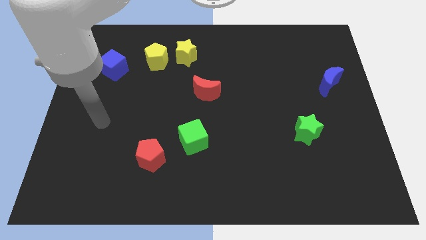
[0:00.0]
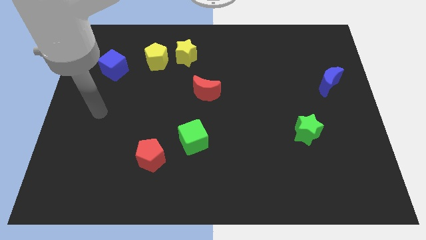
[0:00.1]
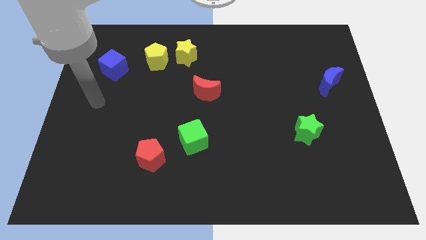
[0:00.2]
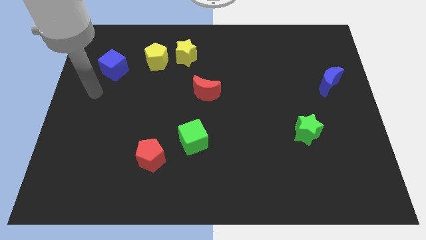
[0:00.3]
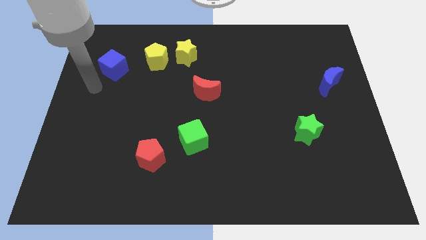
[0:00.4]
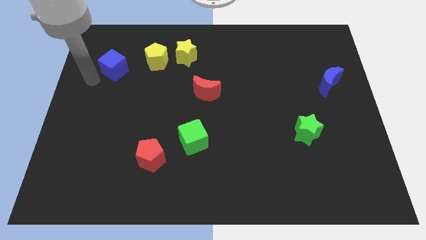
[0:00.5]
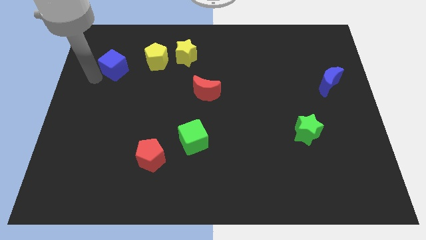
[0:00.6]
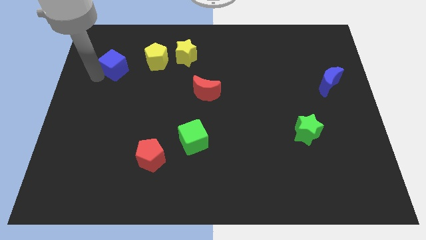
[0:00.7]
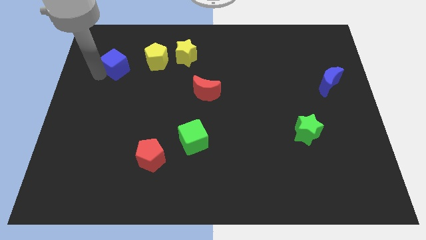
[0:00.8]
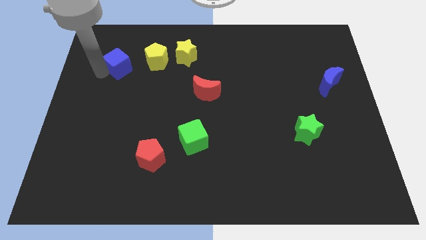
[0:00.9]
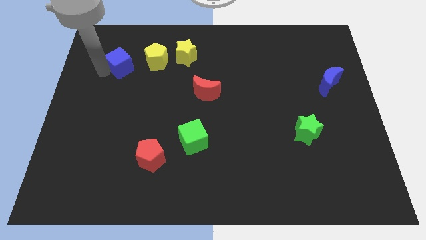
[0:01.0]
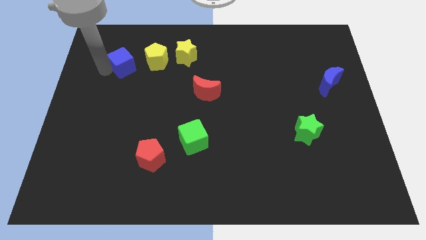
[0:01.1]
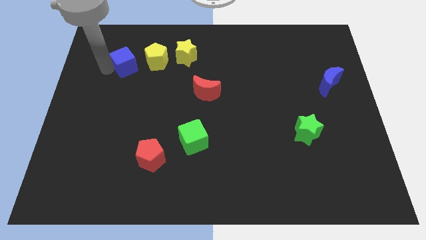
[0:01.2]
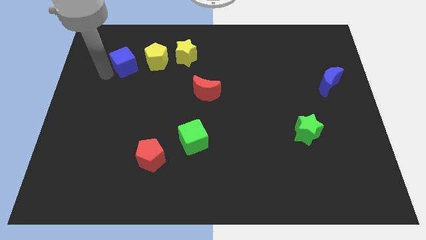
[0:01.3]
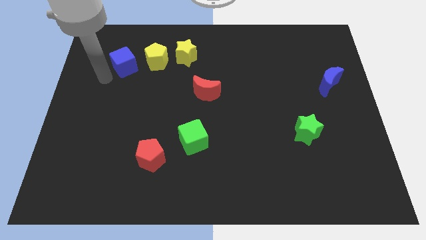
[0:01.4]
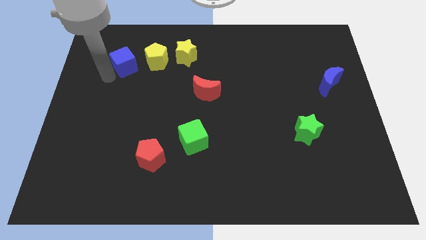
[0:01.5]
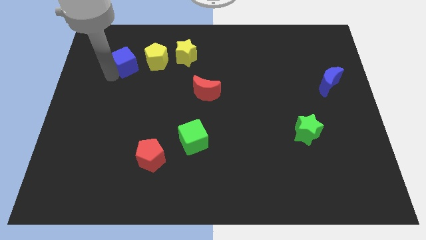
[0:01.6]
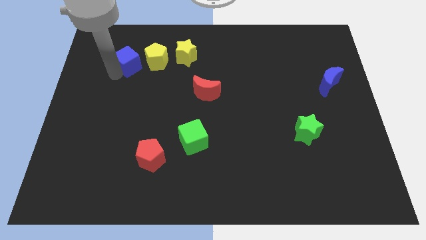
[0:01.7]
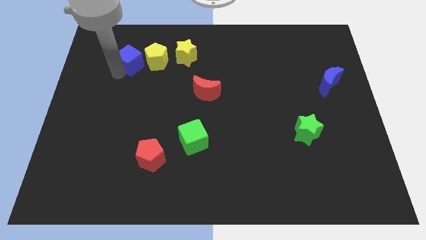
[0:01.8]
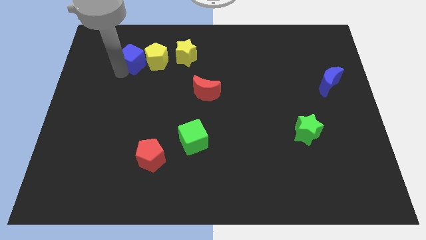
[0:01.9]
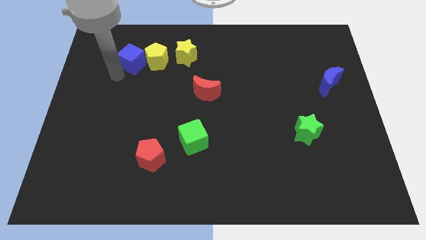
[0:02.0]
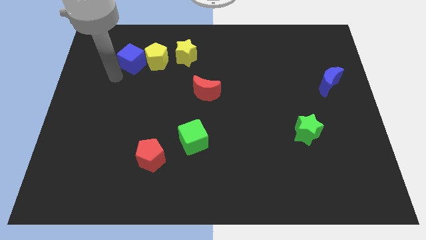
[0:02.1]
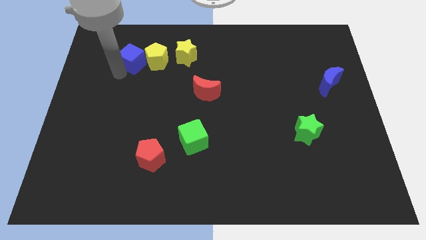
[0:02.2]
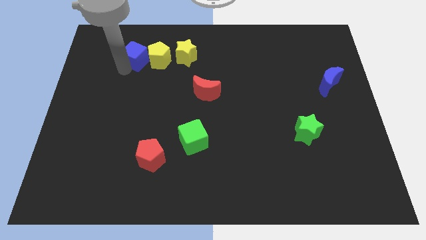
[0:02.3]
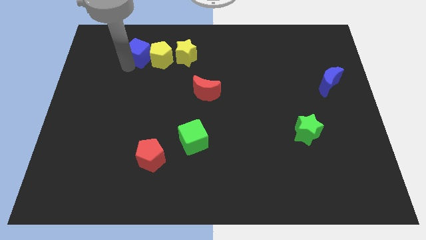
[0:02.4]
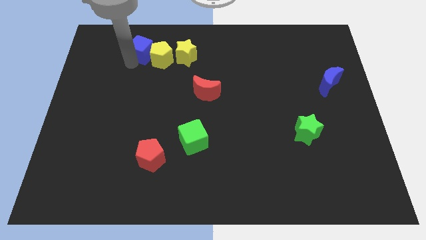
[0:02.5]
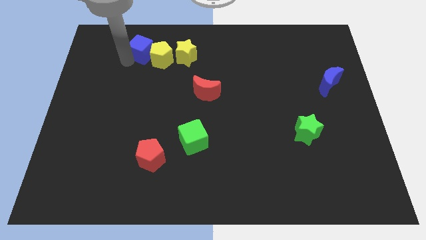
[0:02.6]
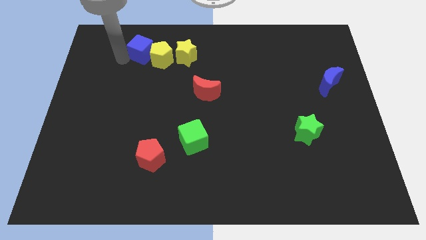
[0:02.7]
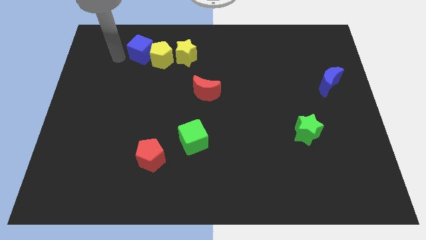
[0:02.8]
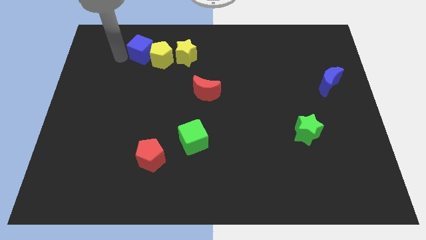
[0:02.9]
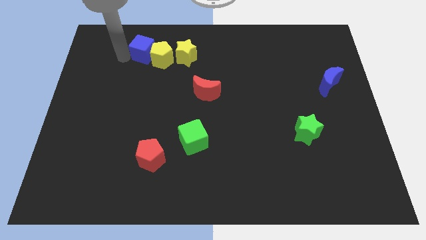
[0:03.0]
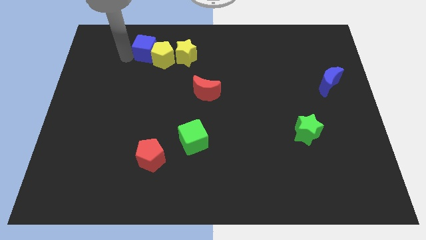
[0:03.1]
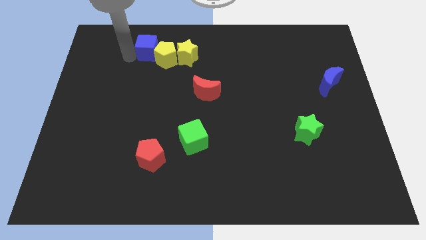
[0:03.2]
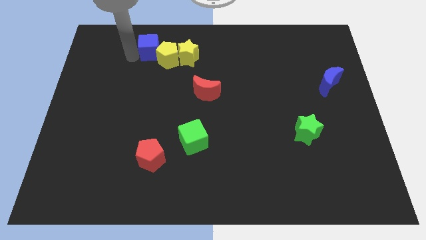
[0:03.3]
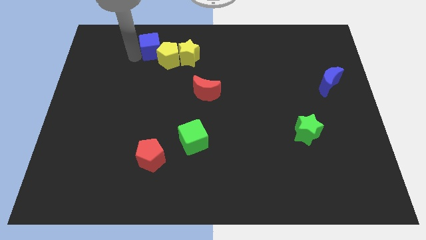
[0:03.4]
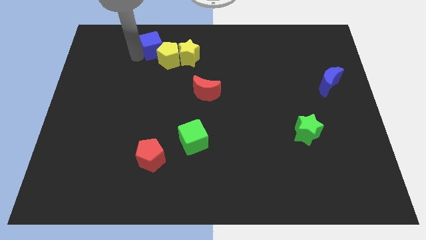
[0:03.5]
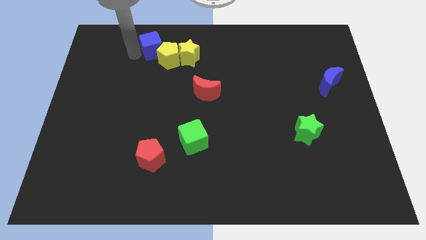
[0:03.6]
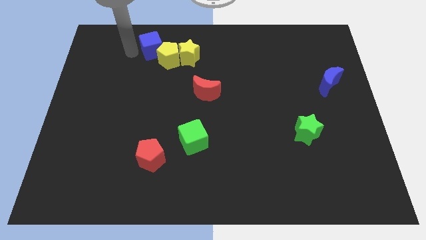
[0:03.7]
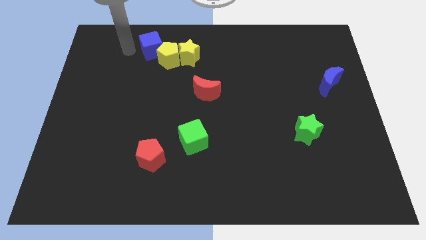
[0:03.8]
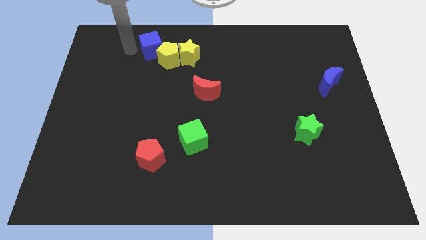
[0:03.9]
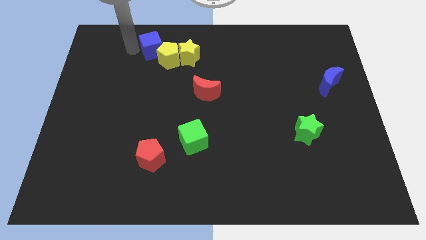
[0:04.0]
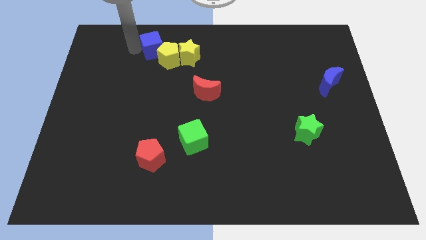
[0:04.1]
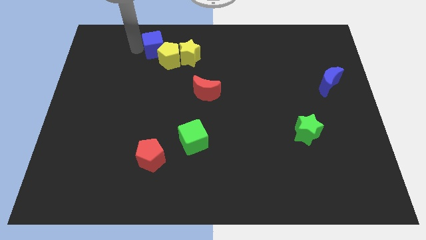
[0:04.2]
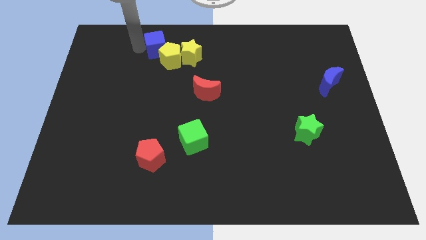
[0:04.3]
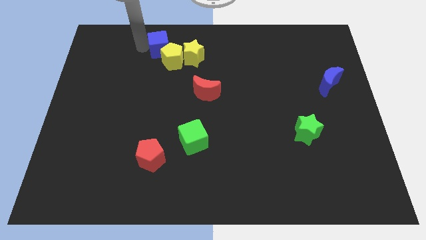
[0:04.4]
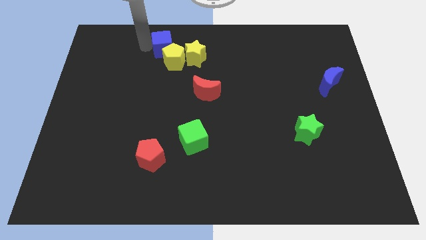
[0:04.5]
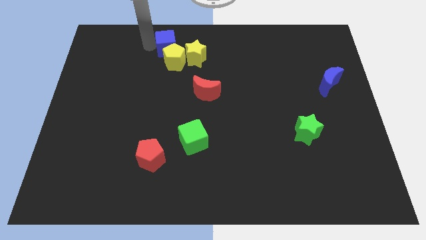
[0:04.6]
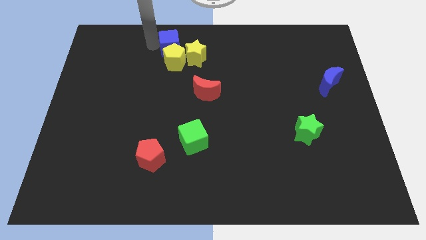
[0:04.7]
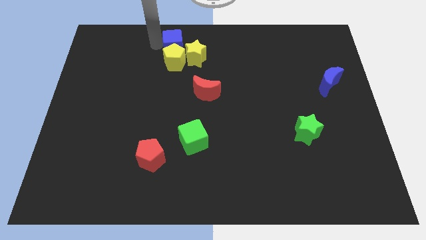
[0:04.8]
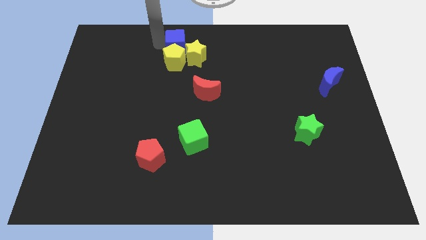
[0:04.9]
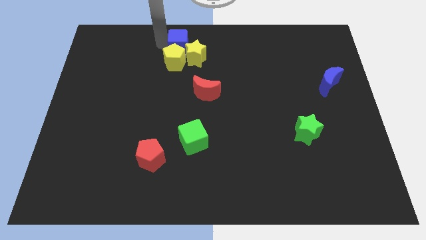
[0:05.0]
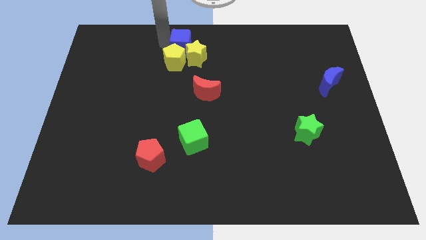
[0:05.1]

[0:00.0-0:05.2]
put the blue cube close to the yellow star
